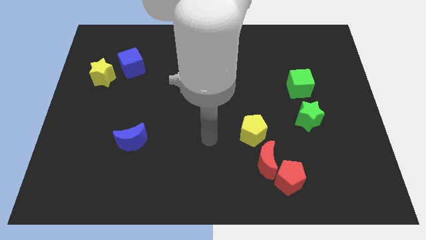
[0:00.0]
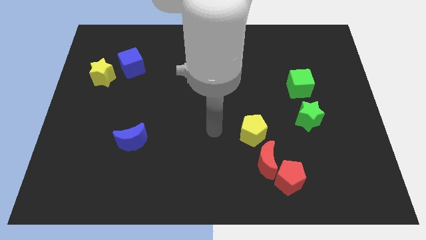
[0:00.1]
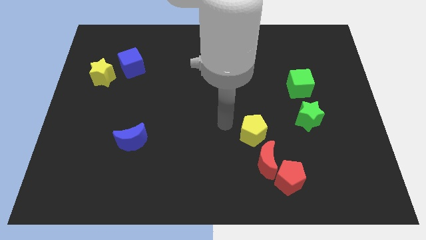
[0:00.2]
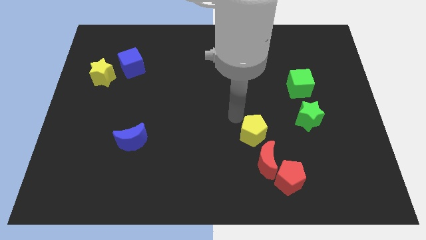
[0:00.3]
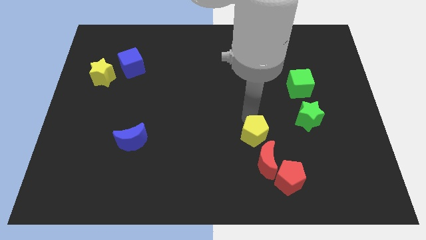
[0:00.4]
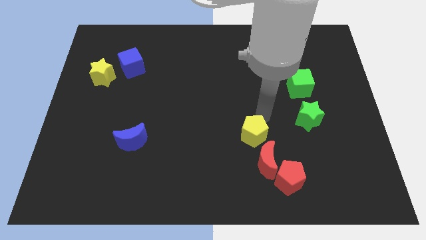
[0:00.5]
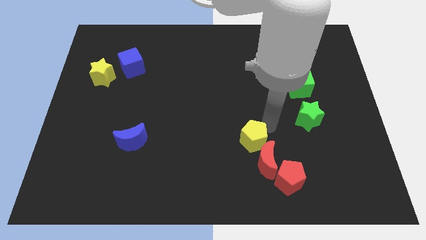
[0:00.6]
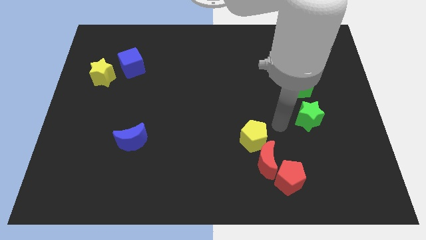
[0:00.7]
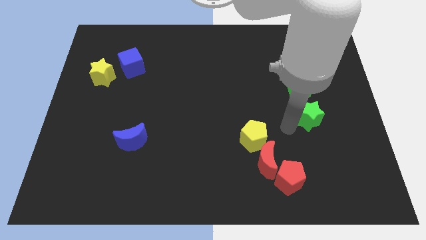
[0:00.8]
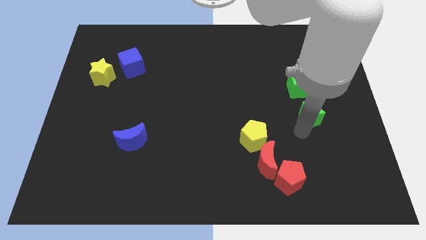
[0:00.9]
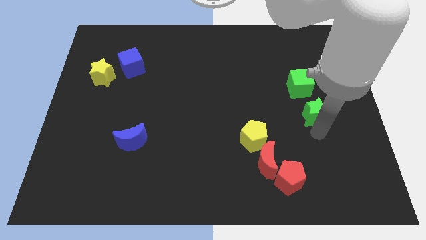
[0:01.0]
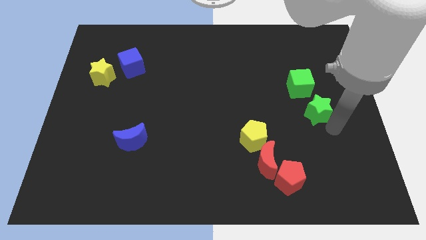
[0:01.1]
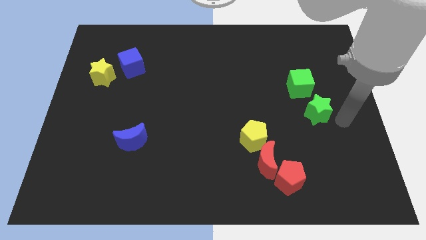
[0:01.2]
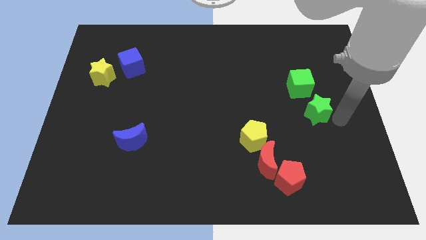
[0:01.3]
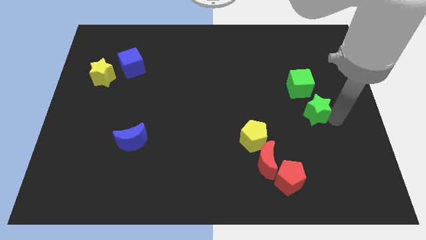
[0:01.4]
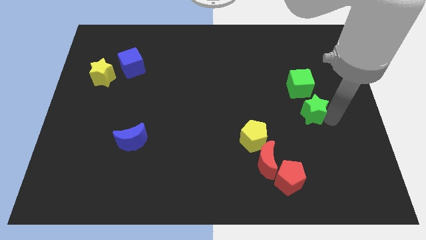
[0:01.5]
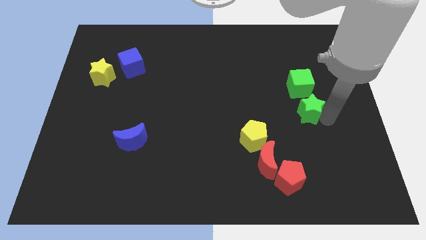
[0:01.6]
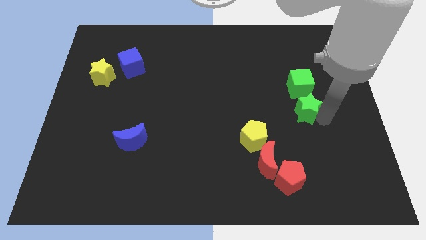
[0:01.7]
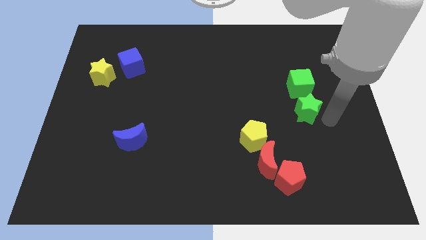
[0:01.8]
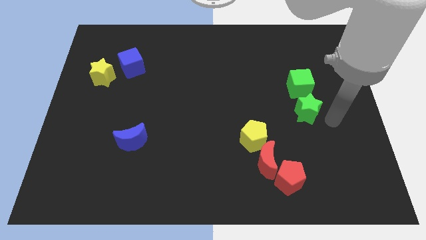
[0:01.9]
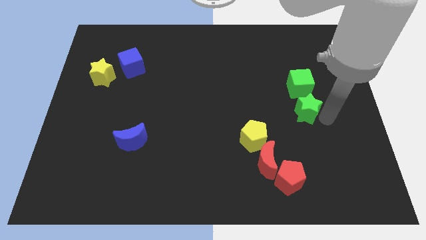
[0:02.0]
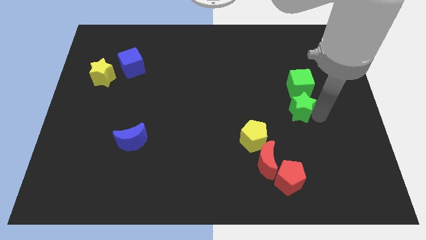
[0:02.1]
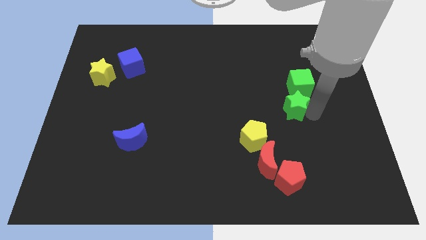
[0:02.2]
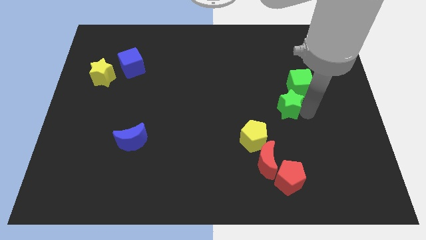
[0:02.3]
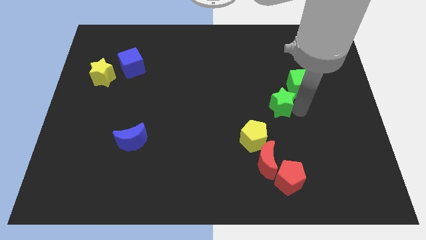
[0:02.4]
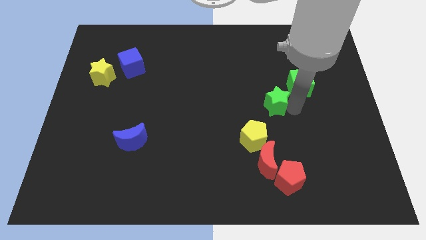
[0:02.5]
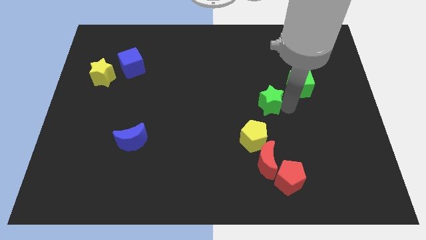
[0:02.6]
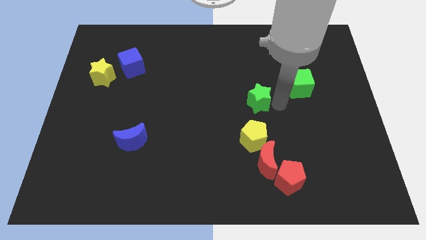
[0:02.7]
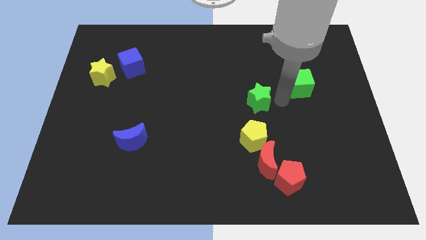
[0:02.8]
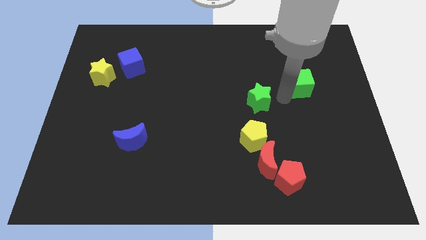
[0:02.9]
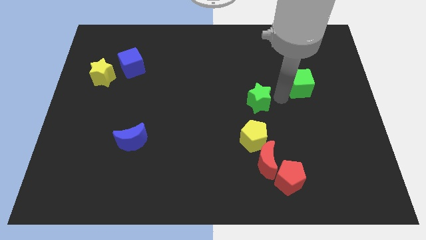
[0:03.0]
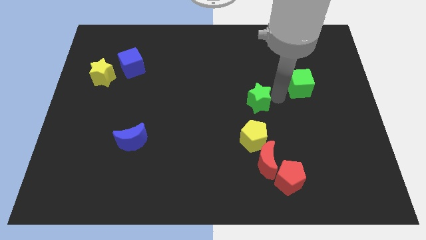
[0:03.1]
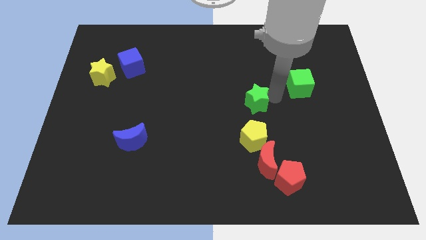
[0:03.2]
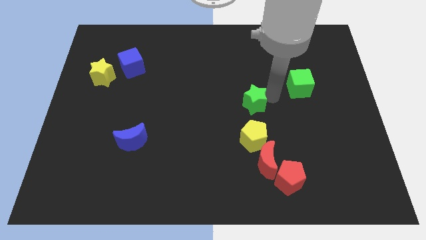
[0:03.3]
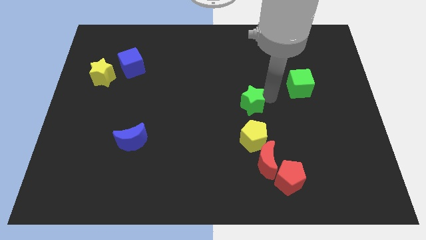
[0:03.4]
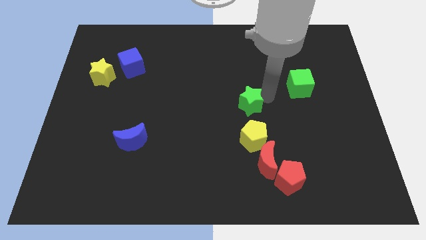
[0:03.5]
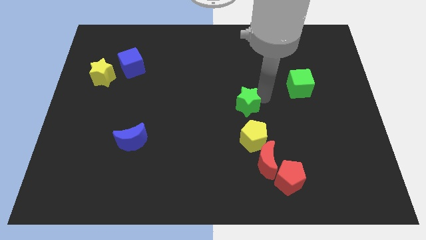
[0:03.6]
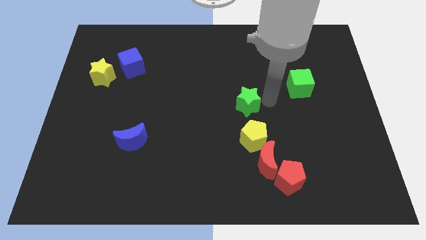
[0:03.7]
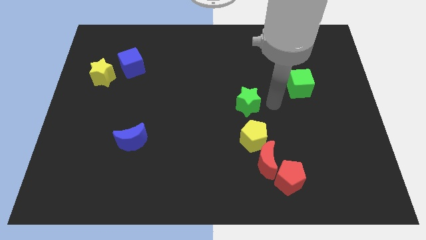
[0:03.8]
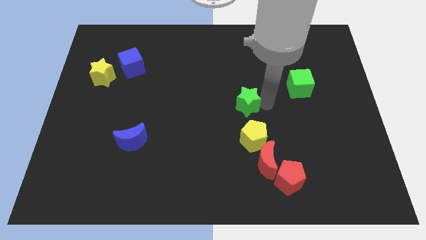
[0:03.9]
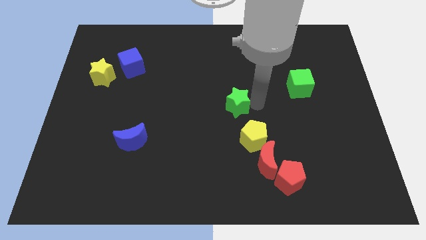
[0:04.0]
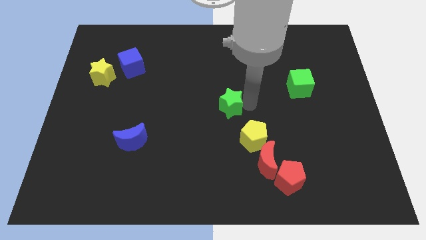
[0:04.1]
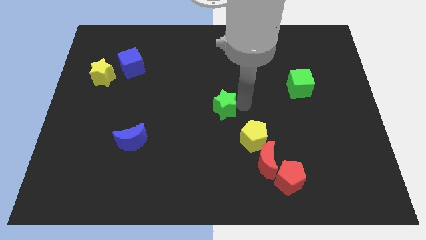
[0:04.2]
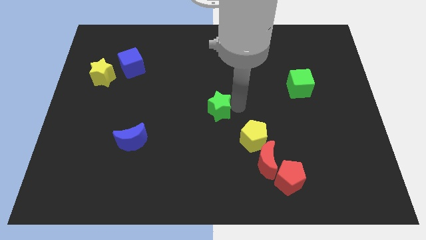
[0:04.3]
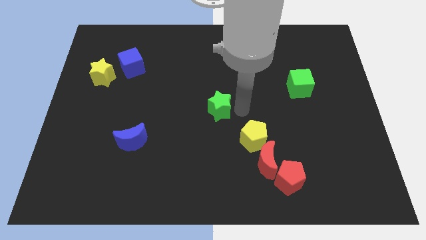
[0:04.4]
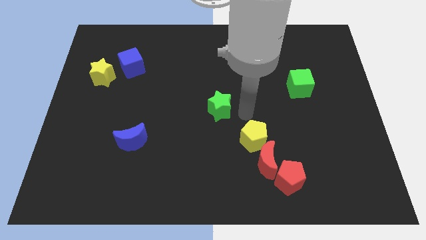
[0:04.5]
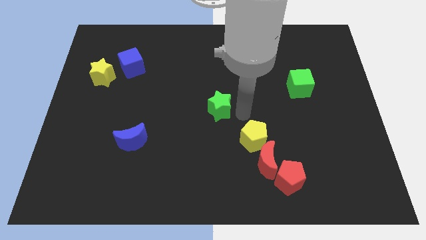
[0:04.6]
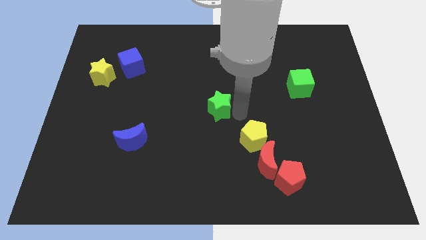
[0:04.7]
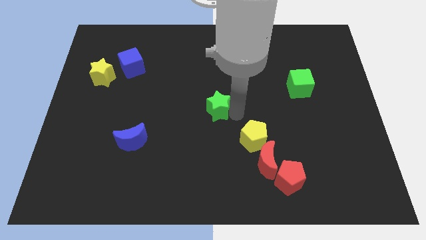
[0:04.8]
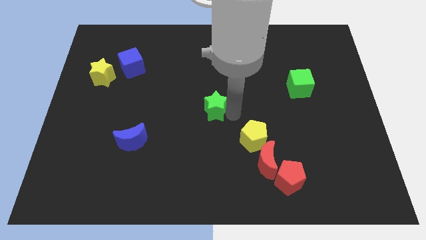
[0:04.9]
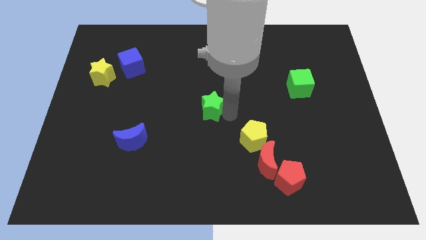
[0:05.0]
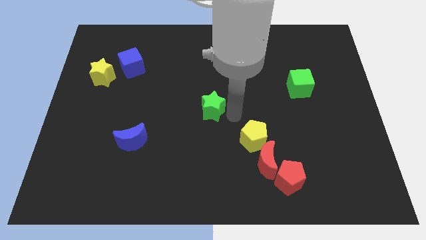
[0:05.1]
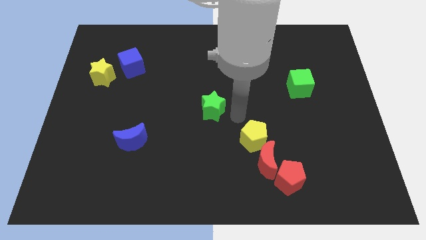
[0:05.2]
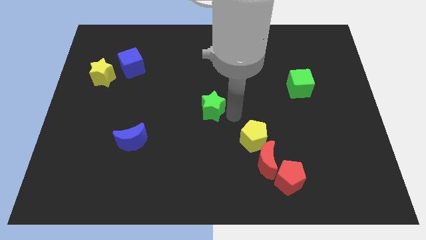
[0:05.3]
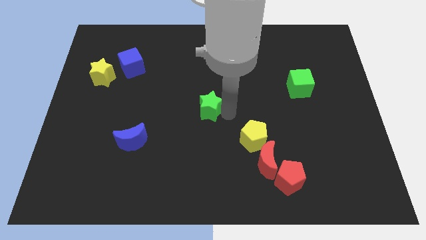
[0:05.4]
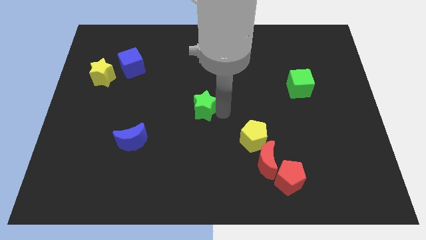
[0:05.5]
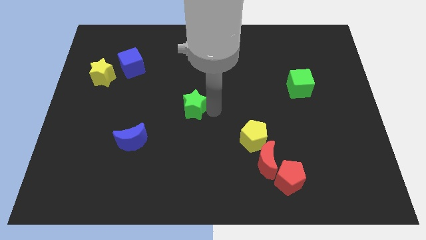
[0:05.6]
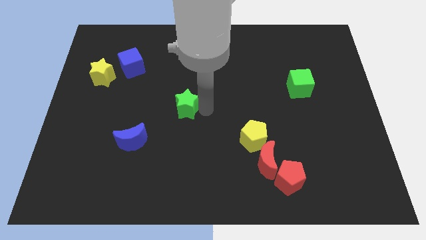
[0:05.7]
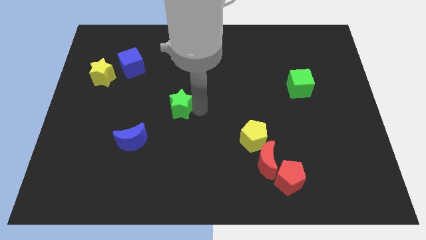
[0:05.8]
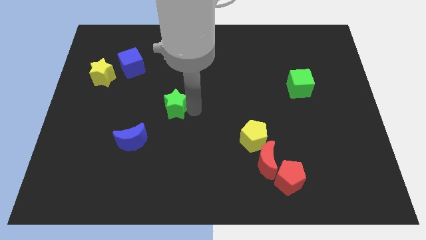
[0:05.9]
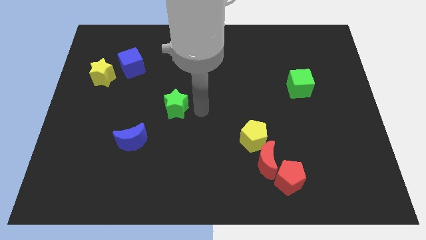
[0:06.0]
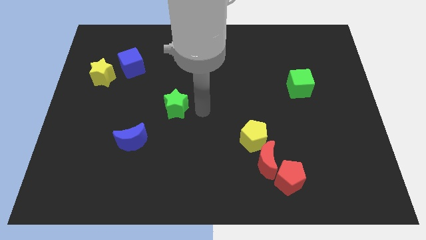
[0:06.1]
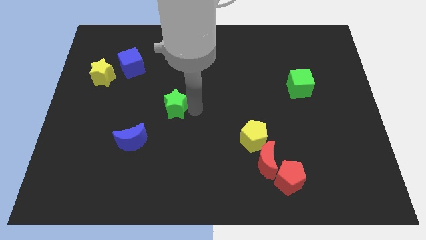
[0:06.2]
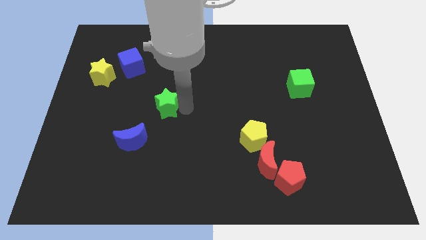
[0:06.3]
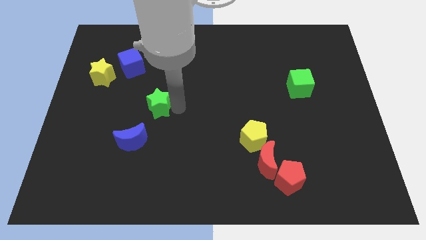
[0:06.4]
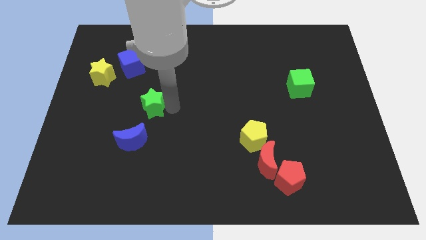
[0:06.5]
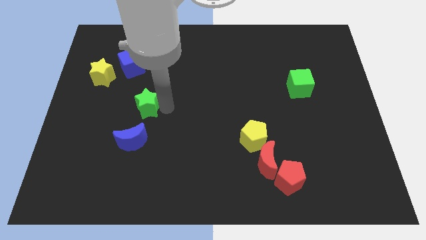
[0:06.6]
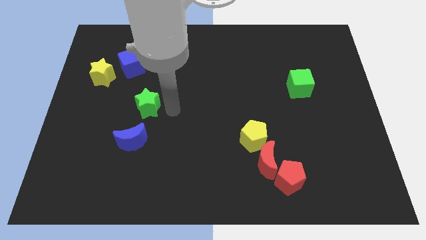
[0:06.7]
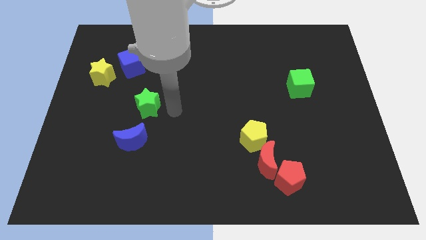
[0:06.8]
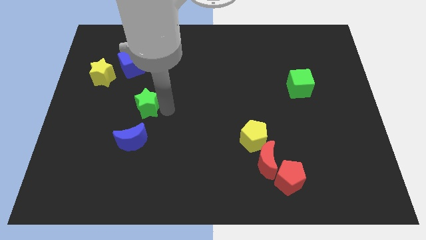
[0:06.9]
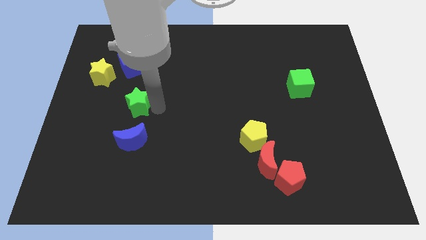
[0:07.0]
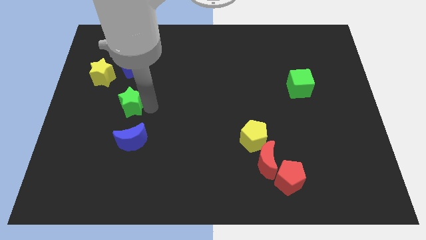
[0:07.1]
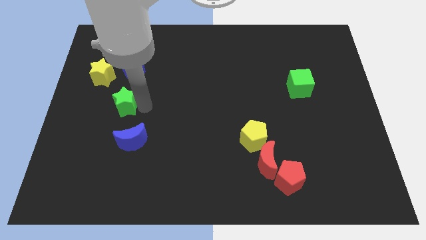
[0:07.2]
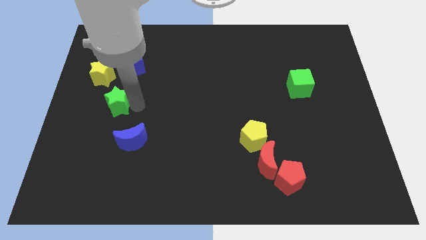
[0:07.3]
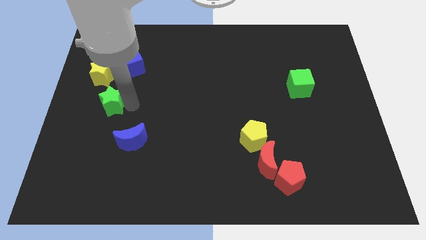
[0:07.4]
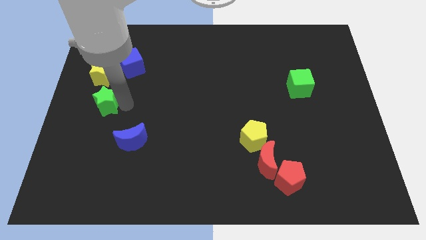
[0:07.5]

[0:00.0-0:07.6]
push the green star to the left side
